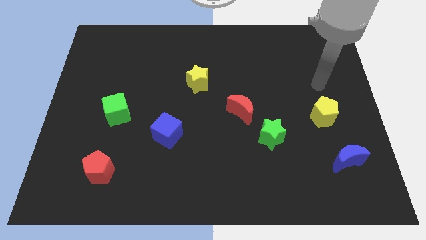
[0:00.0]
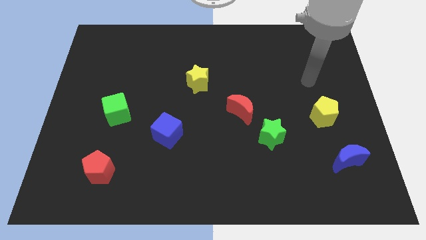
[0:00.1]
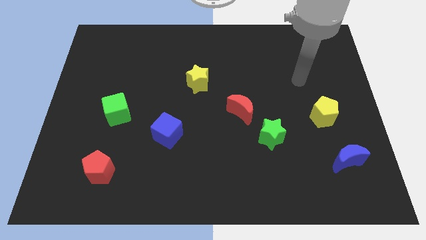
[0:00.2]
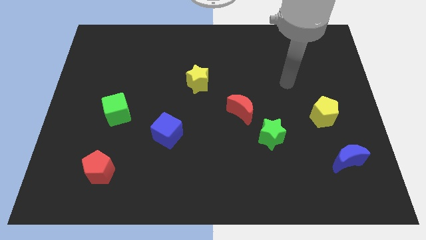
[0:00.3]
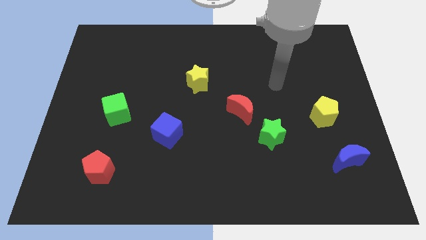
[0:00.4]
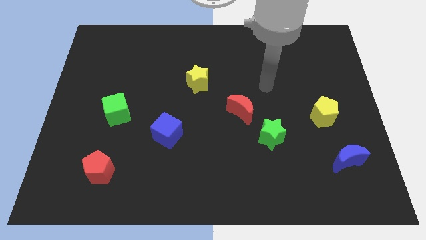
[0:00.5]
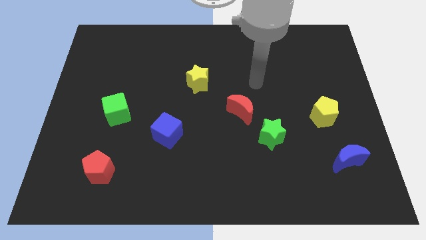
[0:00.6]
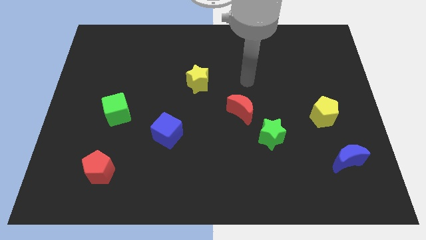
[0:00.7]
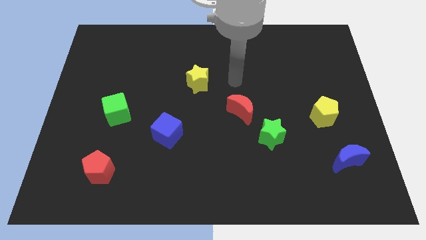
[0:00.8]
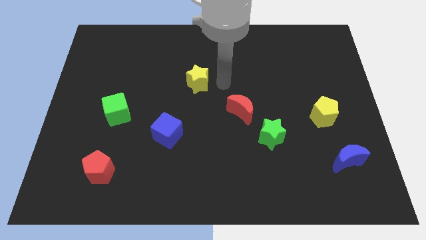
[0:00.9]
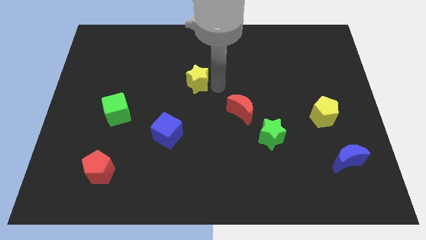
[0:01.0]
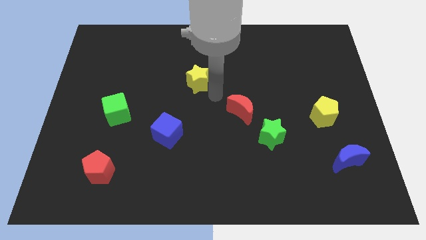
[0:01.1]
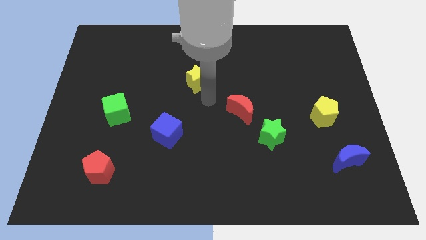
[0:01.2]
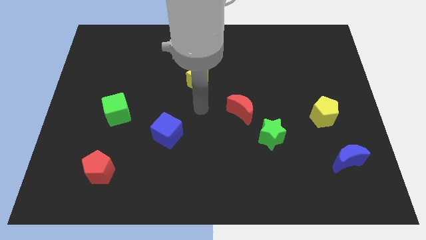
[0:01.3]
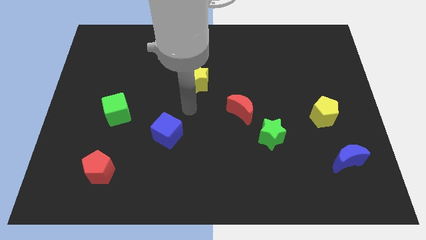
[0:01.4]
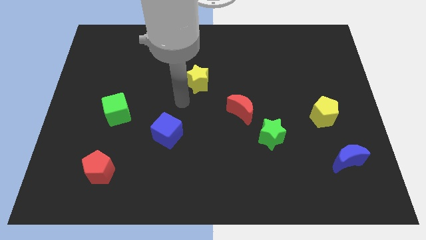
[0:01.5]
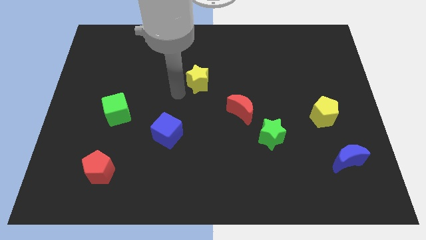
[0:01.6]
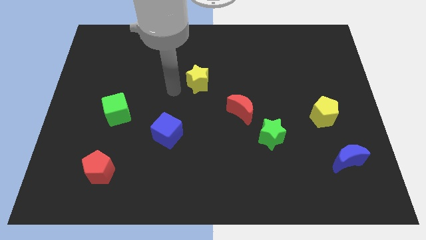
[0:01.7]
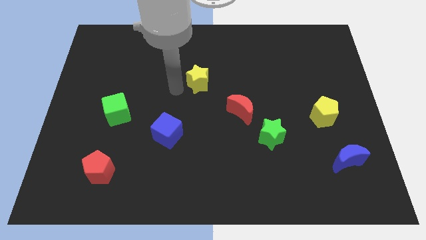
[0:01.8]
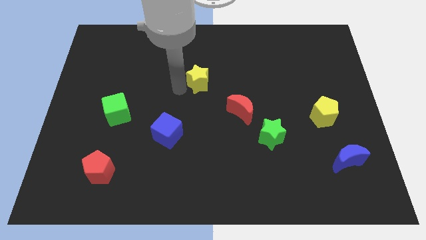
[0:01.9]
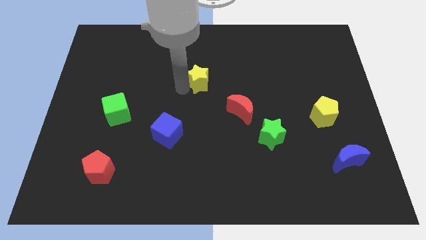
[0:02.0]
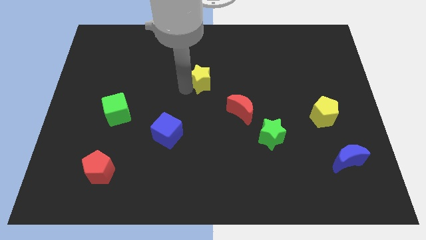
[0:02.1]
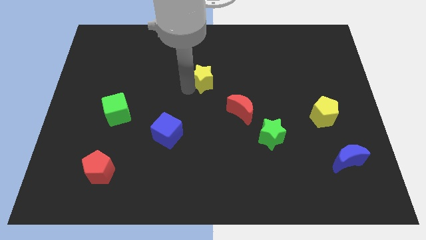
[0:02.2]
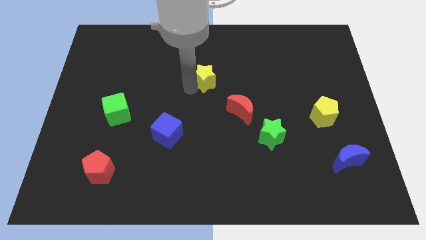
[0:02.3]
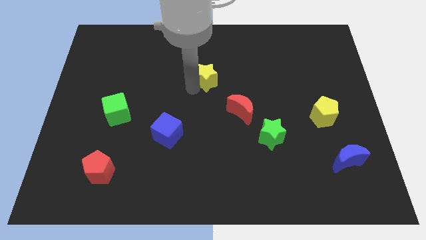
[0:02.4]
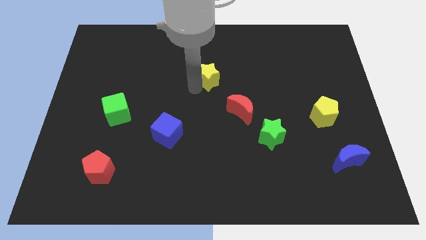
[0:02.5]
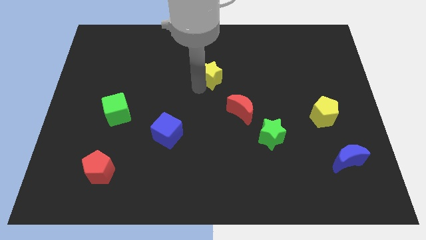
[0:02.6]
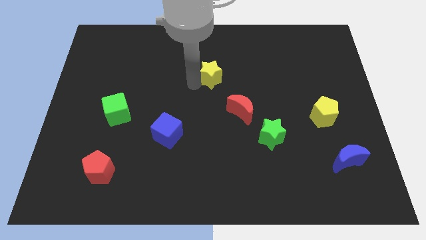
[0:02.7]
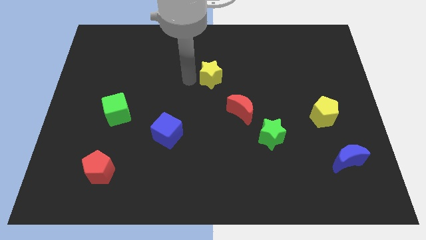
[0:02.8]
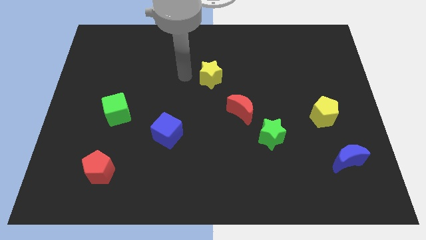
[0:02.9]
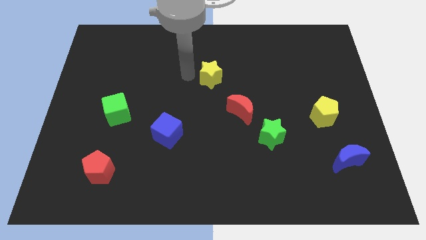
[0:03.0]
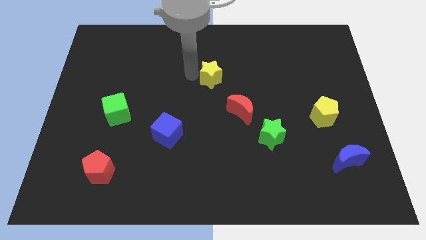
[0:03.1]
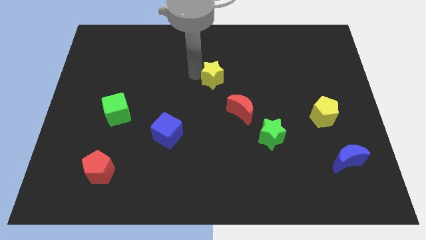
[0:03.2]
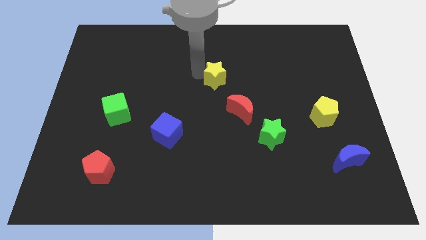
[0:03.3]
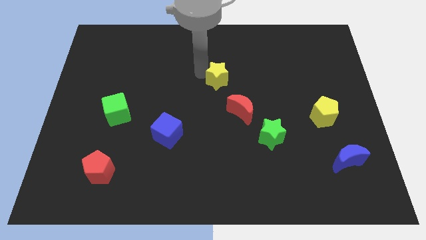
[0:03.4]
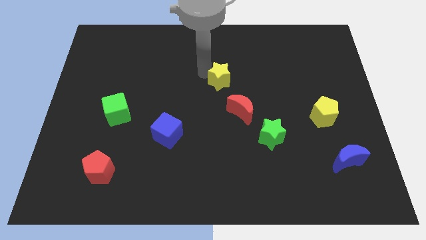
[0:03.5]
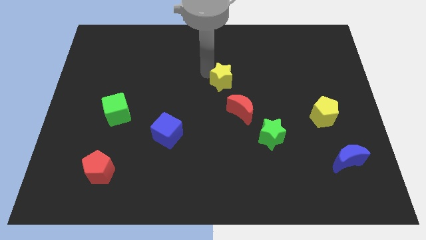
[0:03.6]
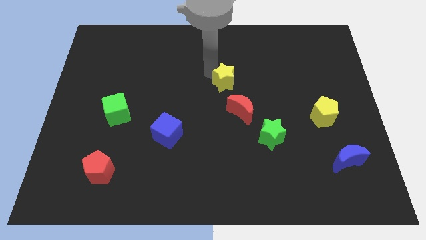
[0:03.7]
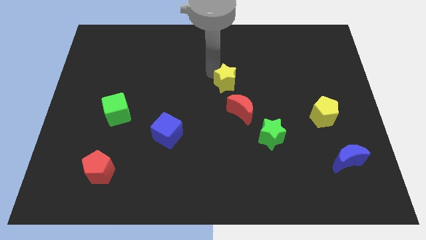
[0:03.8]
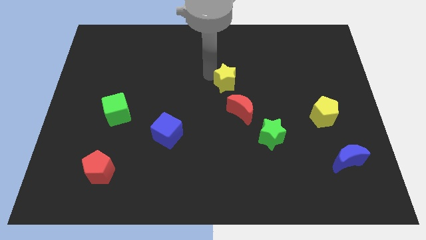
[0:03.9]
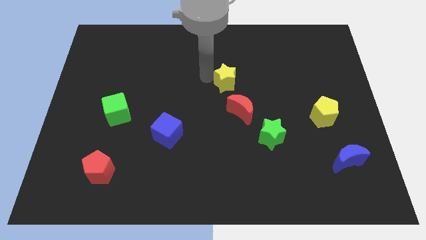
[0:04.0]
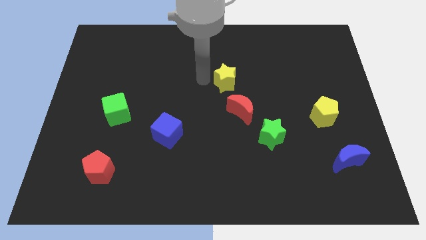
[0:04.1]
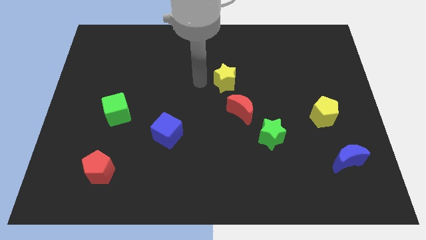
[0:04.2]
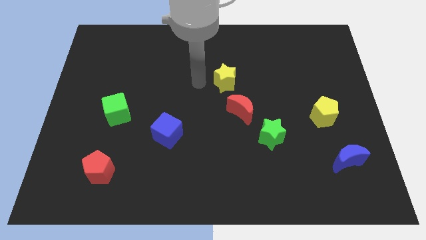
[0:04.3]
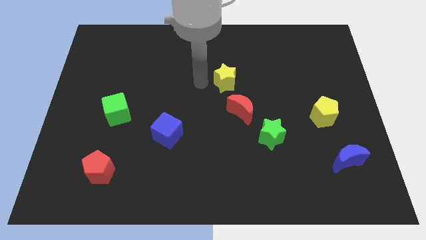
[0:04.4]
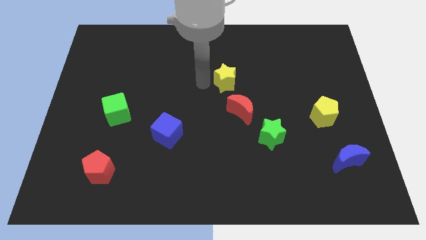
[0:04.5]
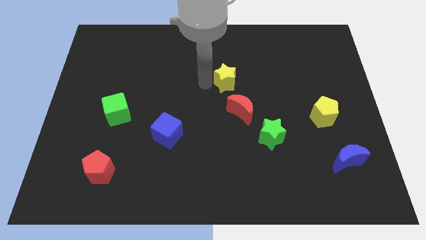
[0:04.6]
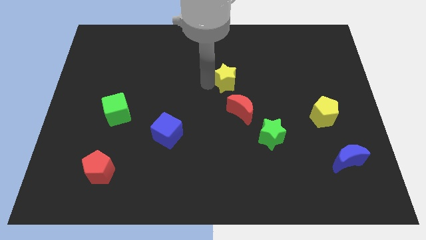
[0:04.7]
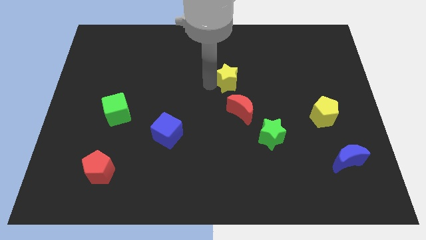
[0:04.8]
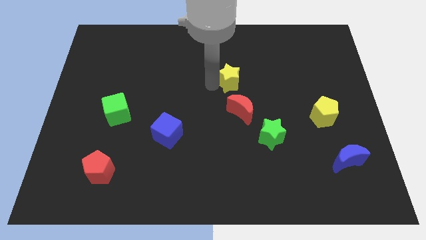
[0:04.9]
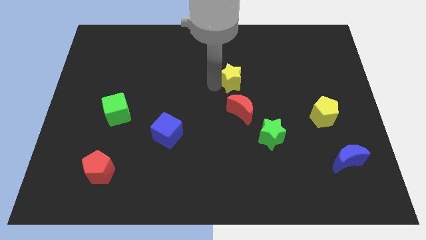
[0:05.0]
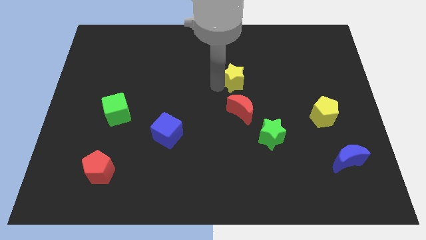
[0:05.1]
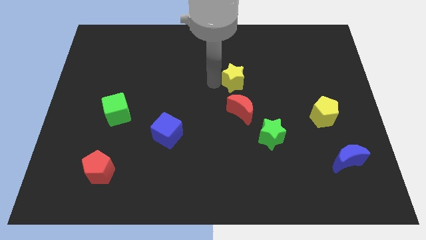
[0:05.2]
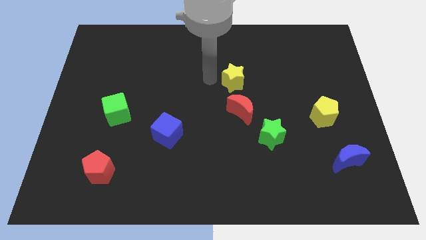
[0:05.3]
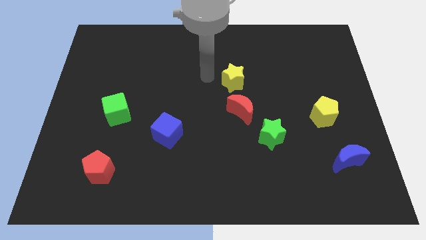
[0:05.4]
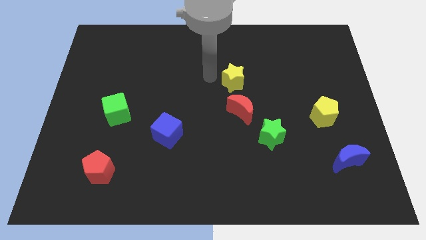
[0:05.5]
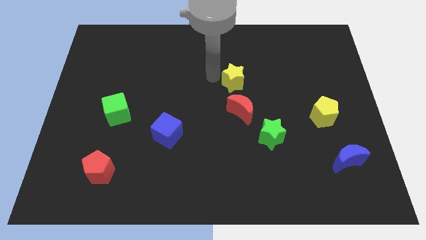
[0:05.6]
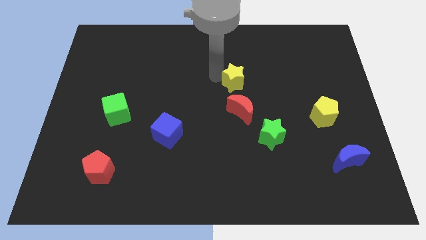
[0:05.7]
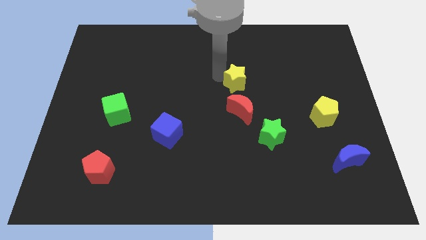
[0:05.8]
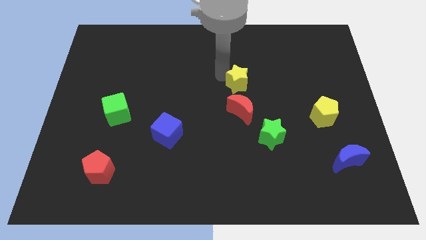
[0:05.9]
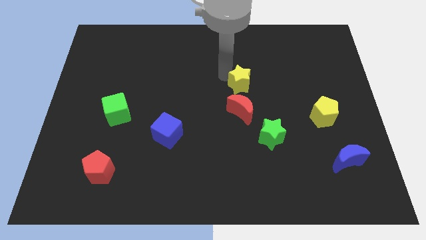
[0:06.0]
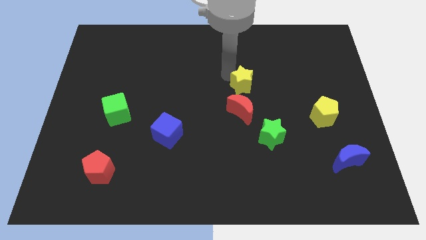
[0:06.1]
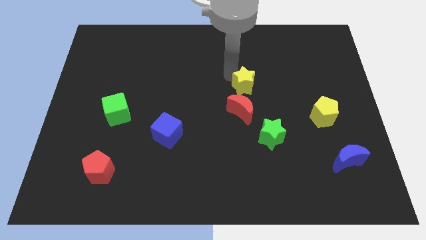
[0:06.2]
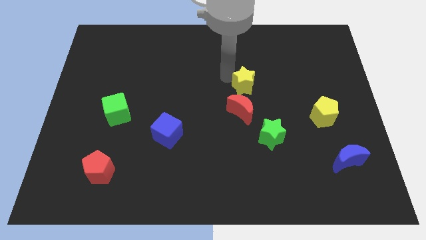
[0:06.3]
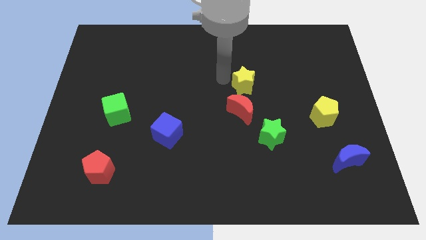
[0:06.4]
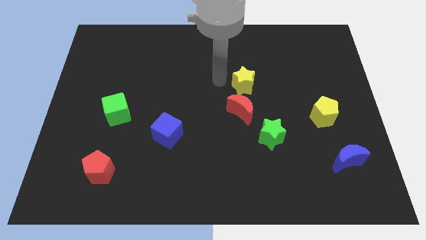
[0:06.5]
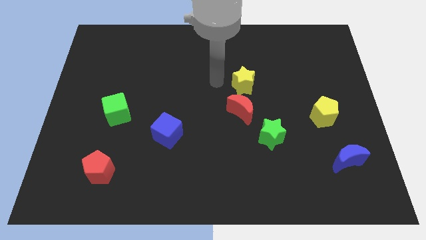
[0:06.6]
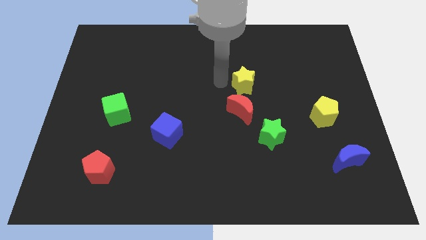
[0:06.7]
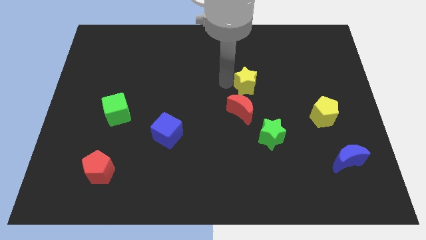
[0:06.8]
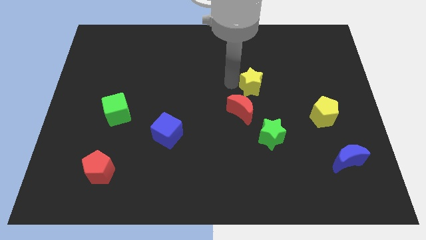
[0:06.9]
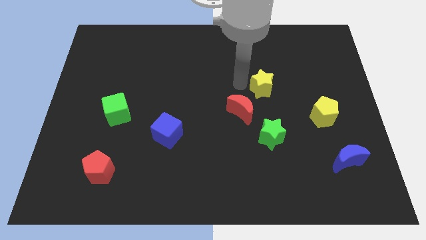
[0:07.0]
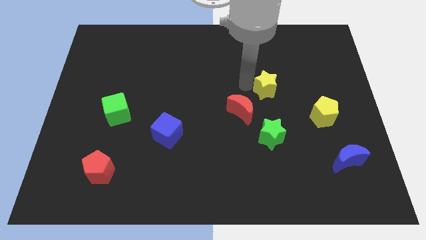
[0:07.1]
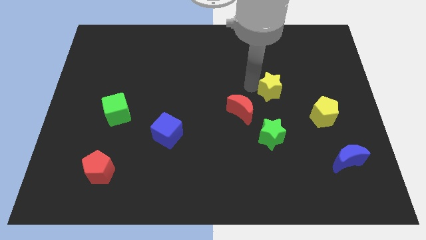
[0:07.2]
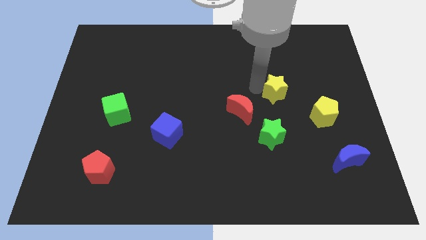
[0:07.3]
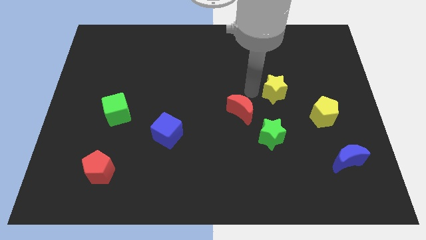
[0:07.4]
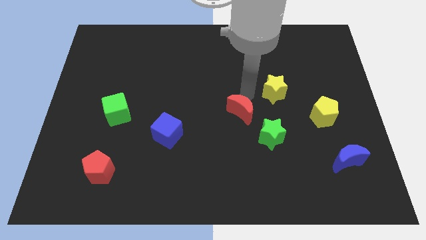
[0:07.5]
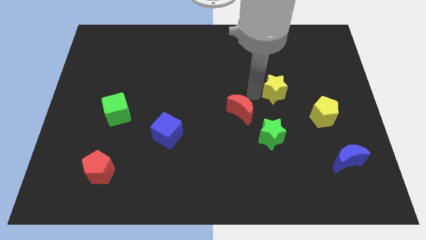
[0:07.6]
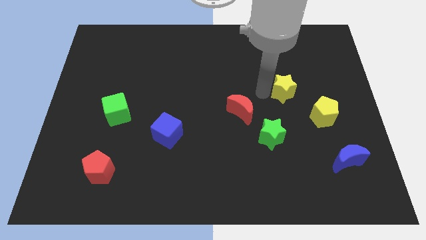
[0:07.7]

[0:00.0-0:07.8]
push the yellow star to the right
